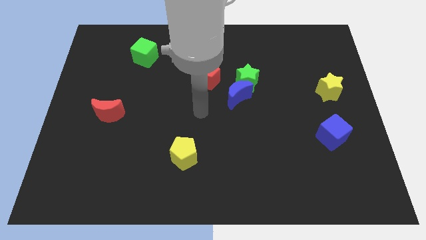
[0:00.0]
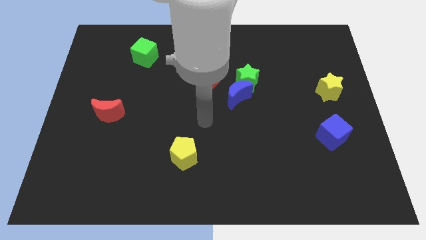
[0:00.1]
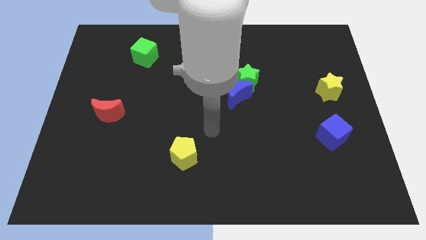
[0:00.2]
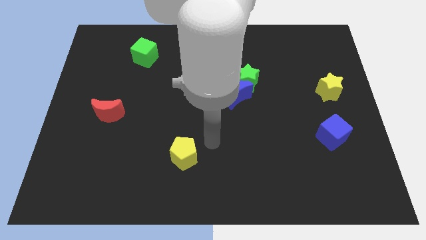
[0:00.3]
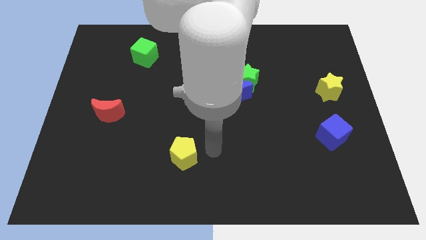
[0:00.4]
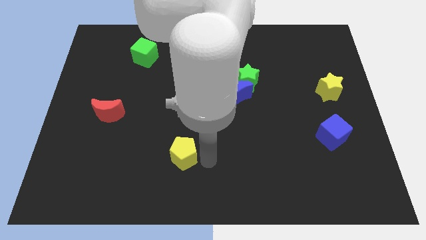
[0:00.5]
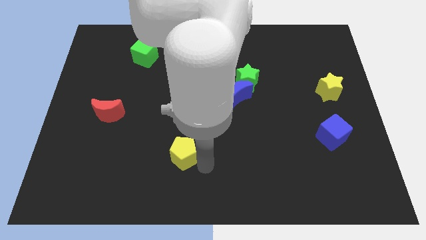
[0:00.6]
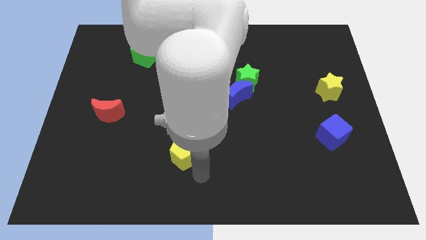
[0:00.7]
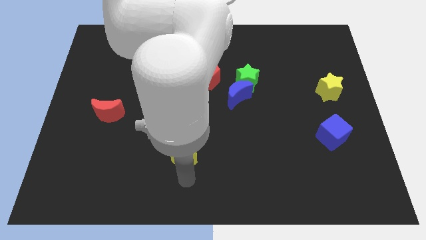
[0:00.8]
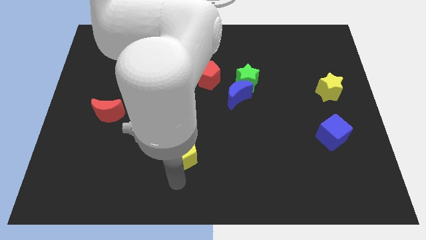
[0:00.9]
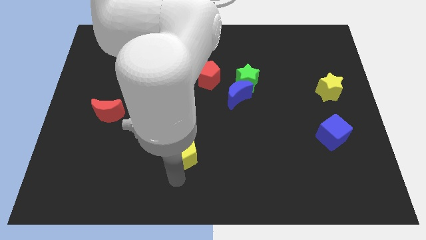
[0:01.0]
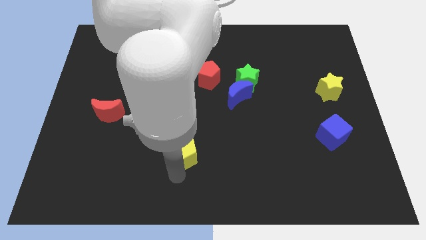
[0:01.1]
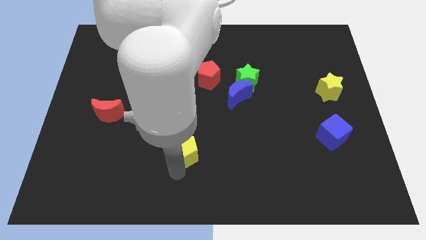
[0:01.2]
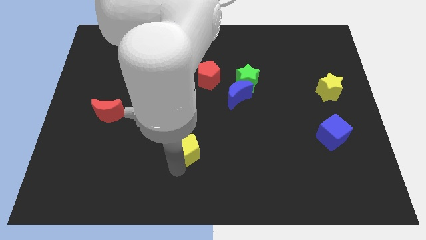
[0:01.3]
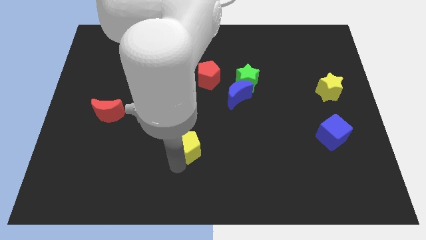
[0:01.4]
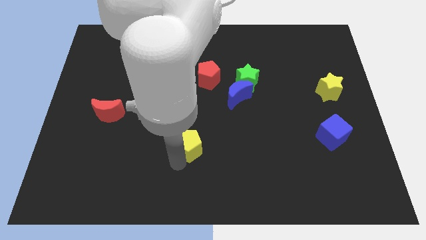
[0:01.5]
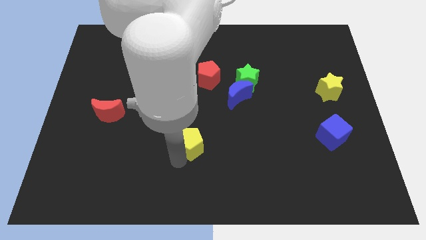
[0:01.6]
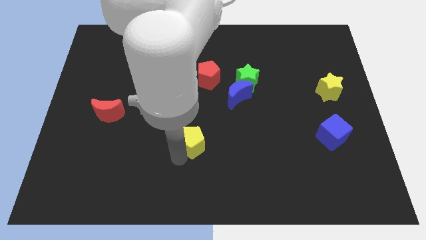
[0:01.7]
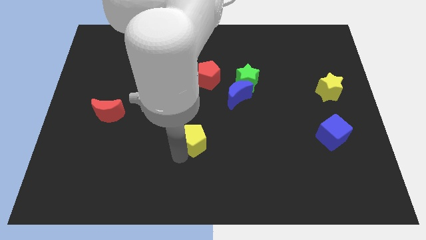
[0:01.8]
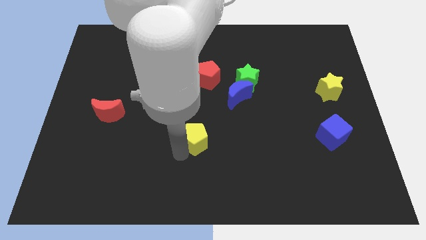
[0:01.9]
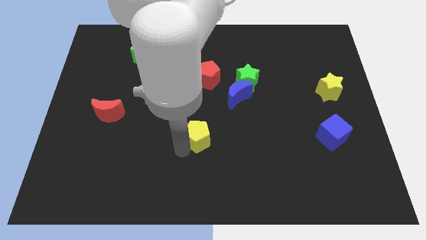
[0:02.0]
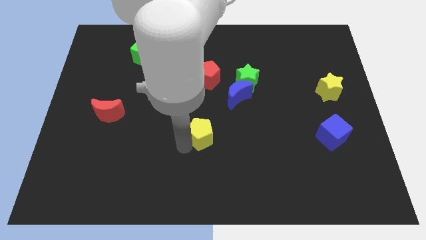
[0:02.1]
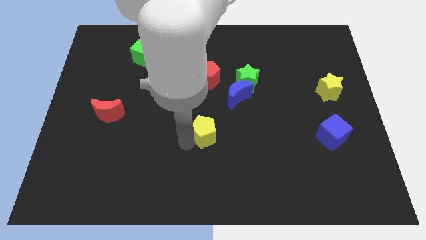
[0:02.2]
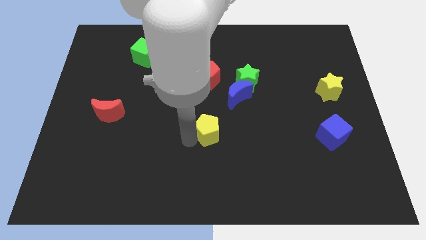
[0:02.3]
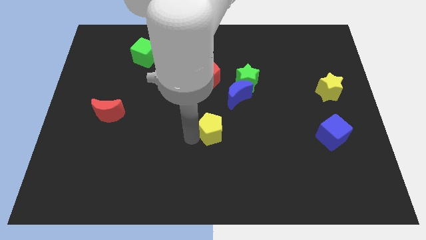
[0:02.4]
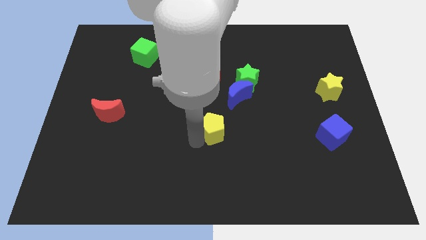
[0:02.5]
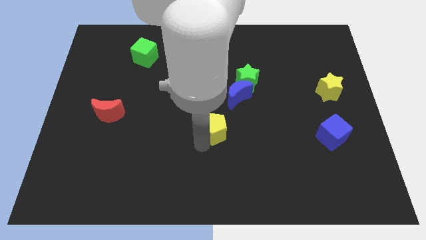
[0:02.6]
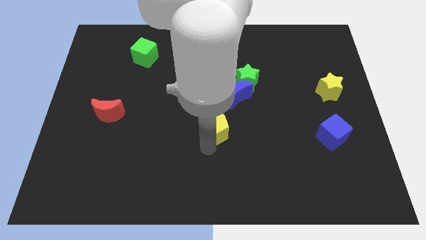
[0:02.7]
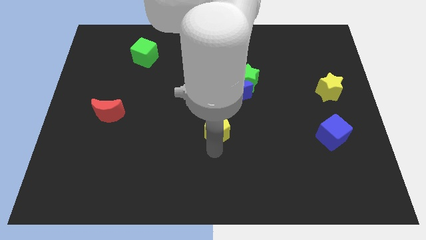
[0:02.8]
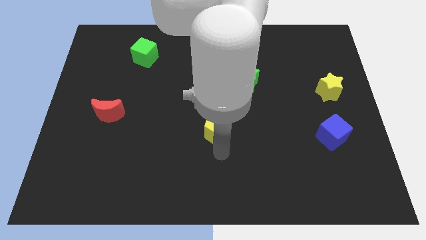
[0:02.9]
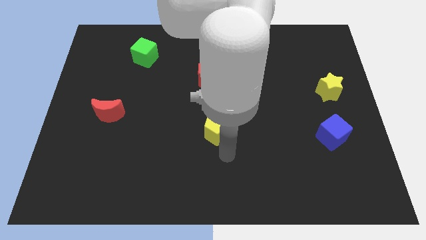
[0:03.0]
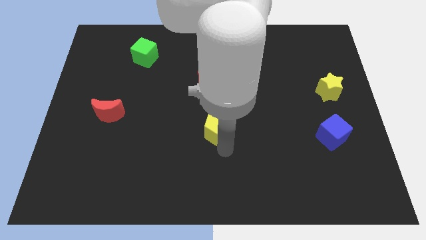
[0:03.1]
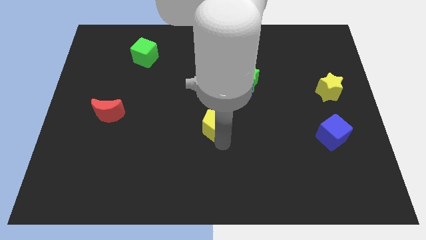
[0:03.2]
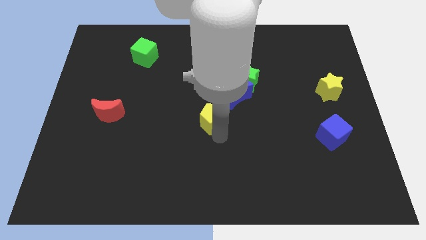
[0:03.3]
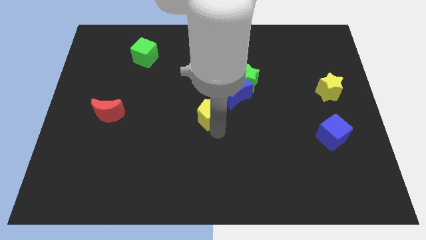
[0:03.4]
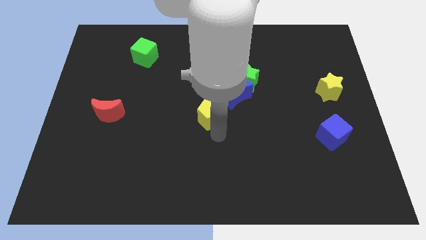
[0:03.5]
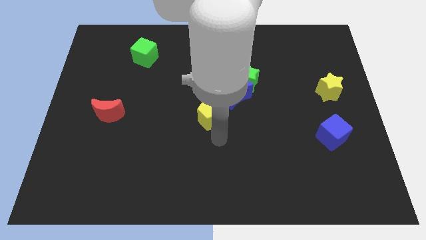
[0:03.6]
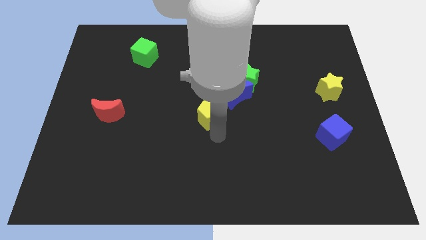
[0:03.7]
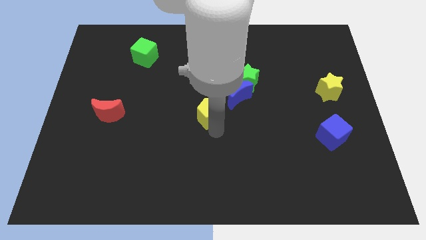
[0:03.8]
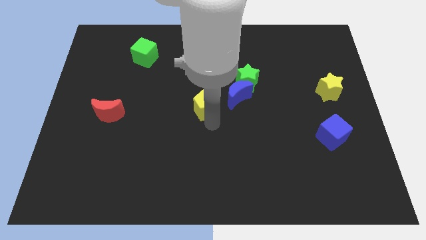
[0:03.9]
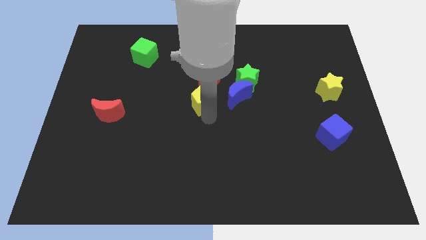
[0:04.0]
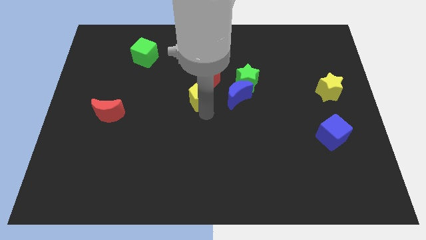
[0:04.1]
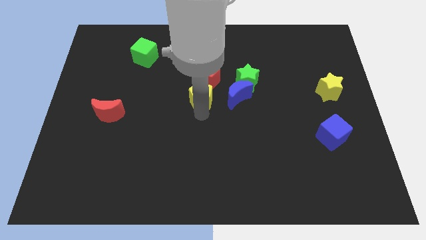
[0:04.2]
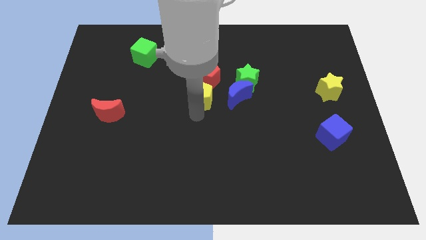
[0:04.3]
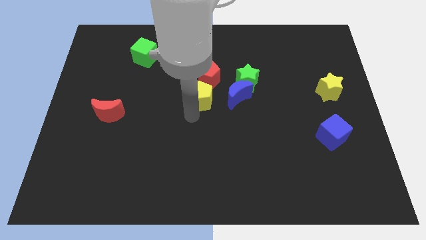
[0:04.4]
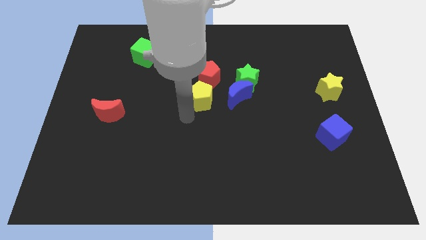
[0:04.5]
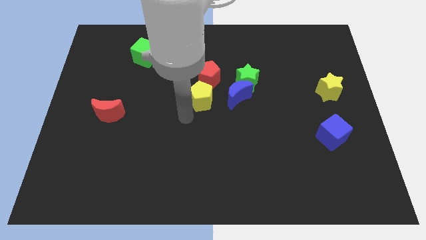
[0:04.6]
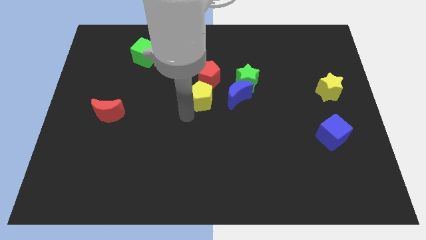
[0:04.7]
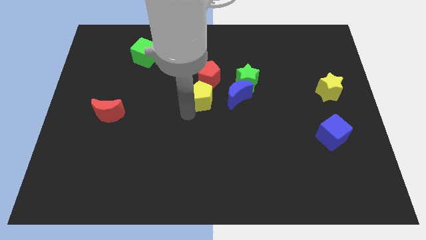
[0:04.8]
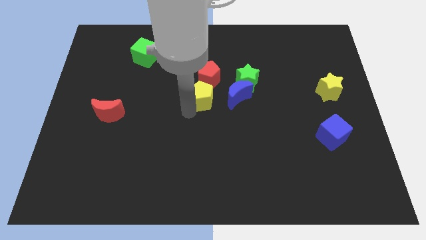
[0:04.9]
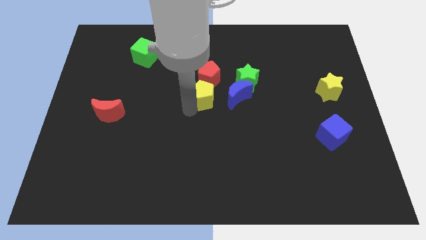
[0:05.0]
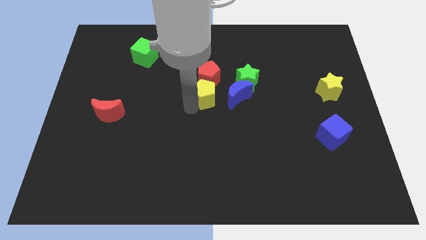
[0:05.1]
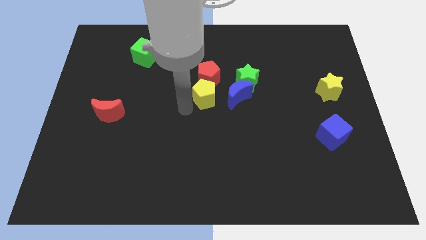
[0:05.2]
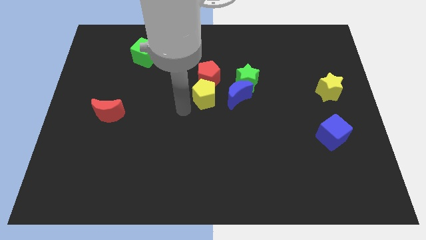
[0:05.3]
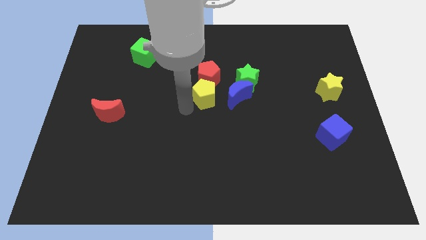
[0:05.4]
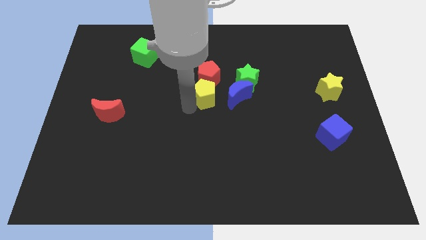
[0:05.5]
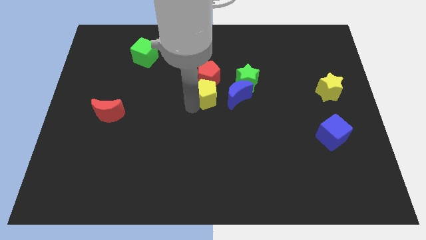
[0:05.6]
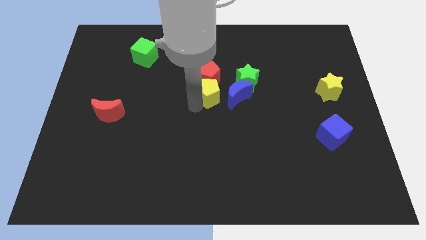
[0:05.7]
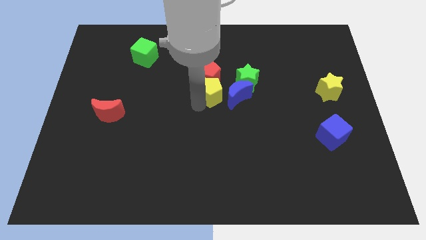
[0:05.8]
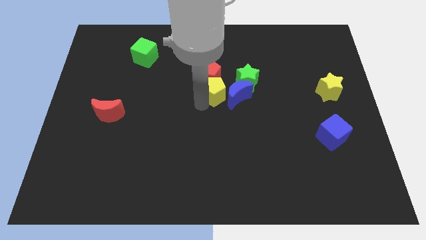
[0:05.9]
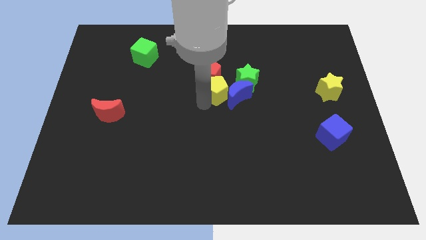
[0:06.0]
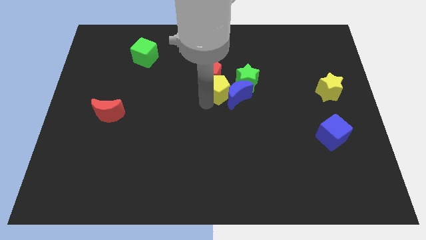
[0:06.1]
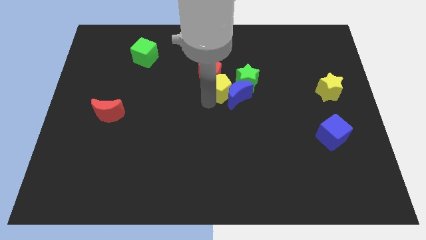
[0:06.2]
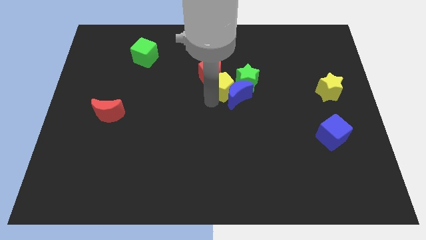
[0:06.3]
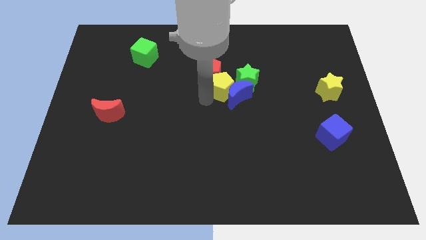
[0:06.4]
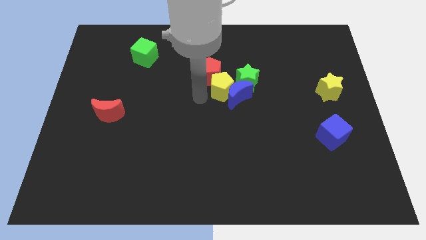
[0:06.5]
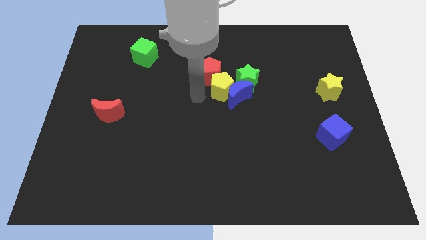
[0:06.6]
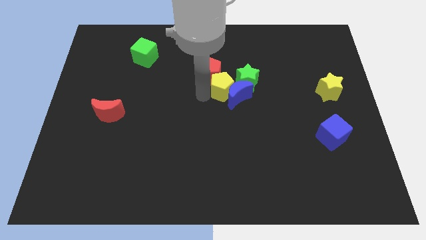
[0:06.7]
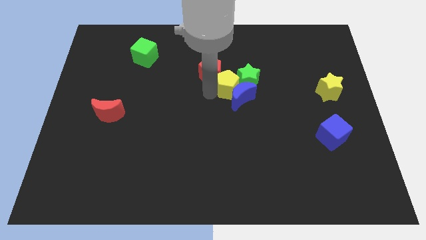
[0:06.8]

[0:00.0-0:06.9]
push the yellow pentagon close to the green star
